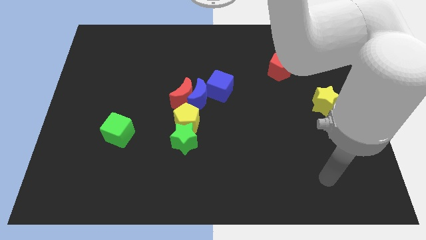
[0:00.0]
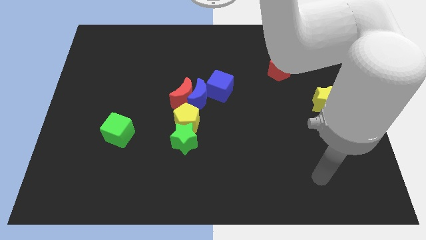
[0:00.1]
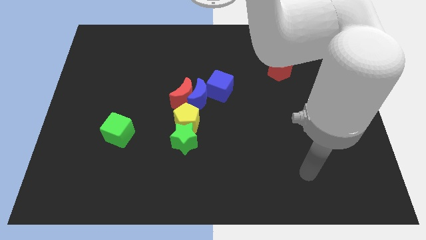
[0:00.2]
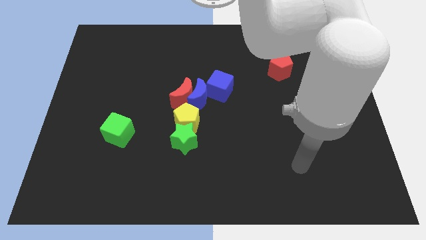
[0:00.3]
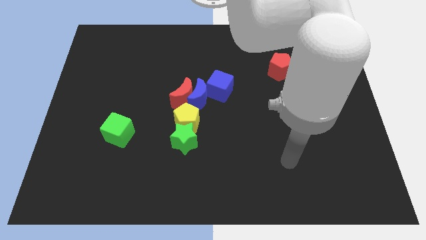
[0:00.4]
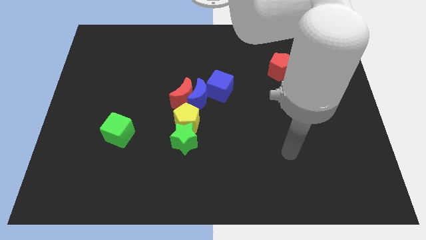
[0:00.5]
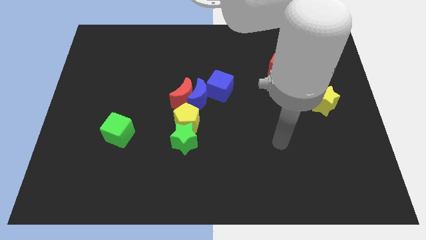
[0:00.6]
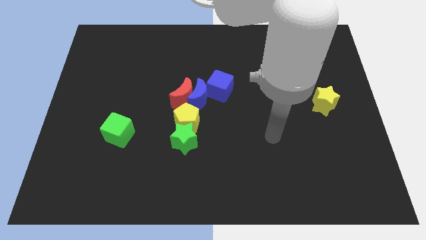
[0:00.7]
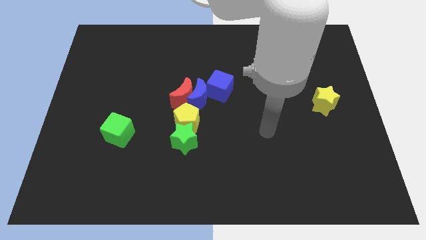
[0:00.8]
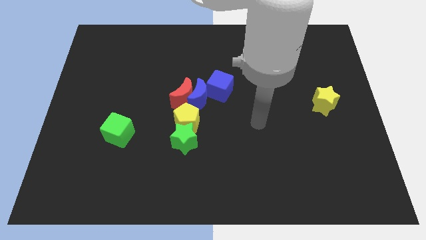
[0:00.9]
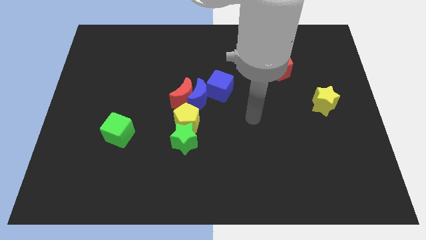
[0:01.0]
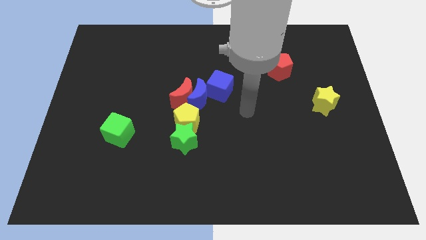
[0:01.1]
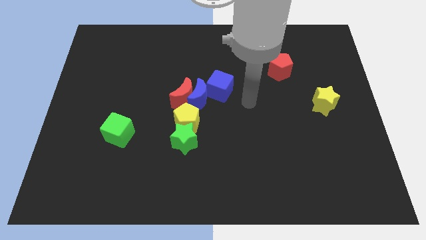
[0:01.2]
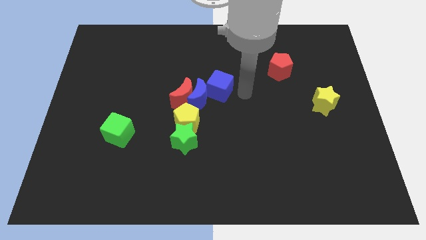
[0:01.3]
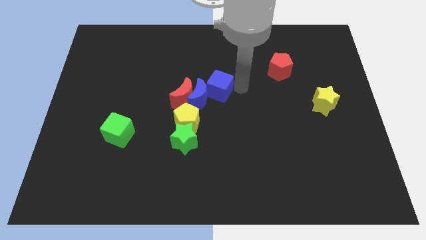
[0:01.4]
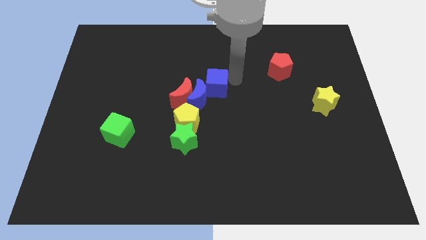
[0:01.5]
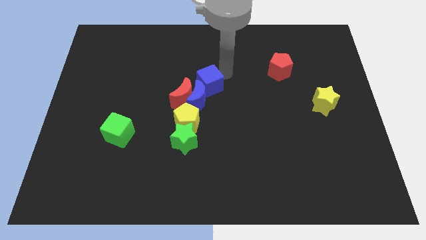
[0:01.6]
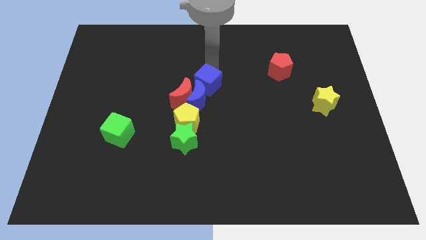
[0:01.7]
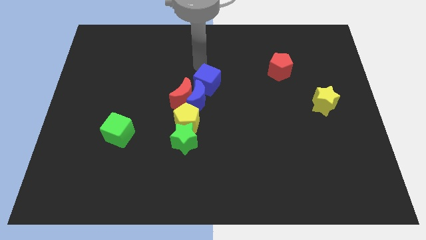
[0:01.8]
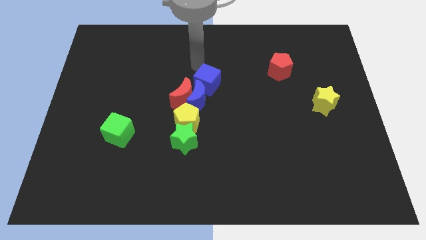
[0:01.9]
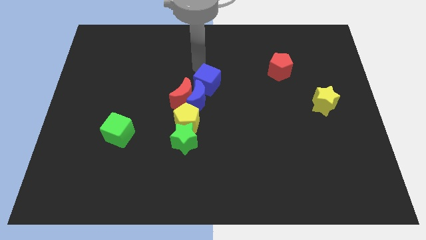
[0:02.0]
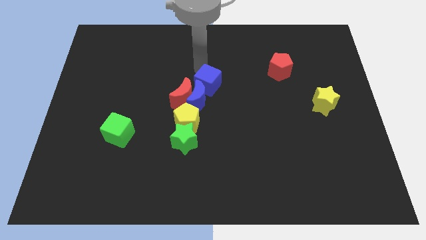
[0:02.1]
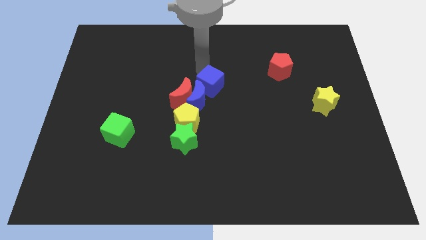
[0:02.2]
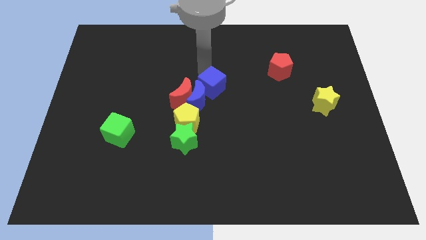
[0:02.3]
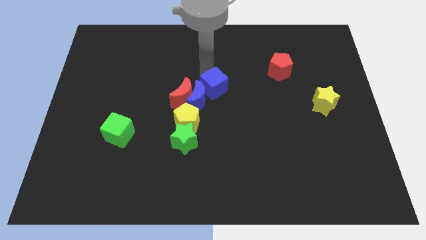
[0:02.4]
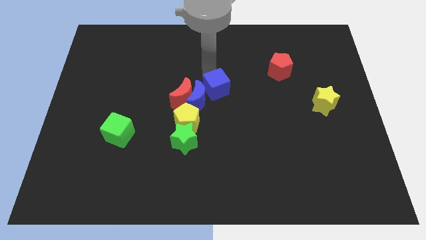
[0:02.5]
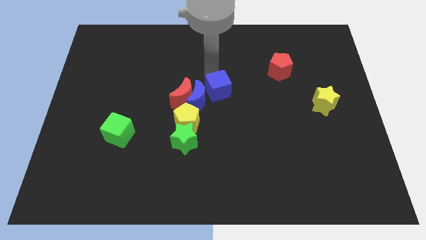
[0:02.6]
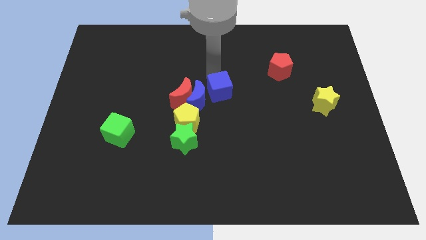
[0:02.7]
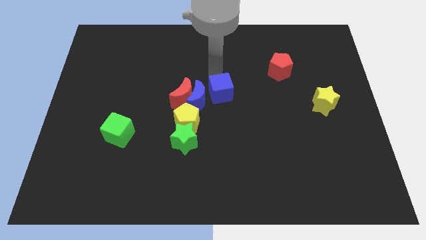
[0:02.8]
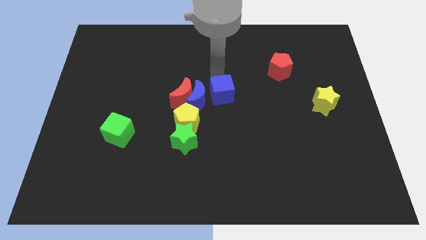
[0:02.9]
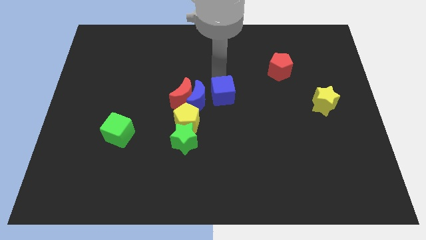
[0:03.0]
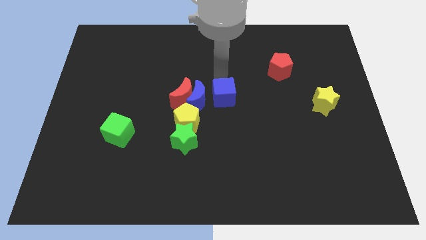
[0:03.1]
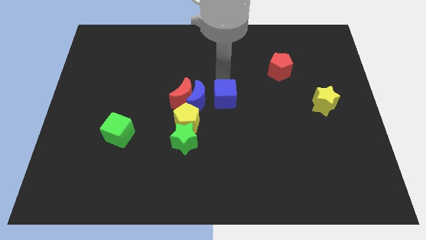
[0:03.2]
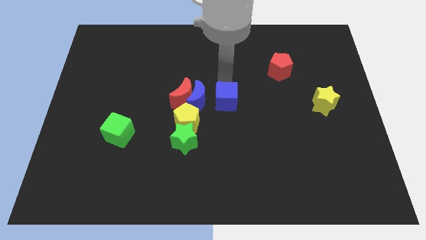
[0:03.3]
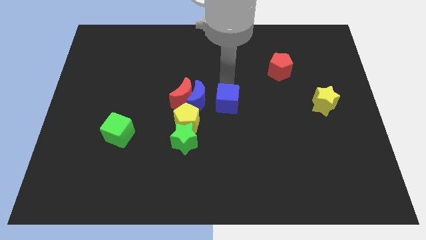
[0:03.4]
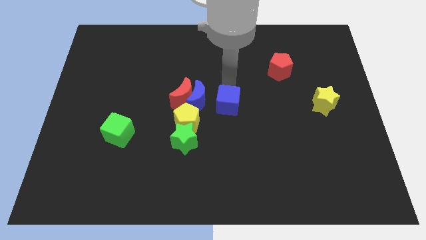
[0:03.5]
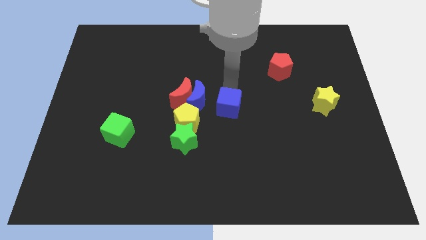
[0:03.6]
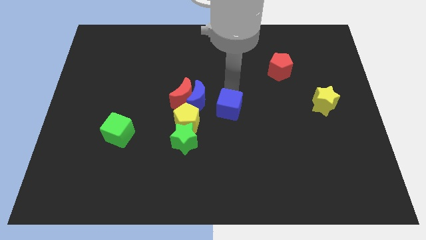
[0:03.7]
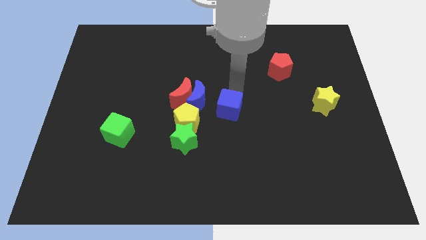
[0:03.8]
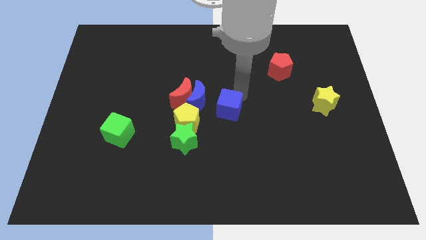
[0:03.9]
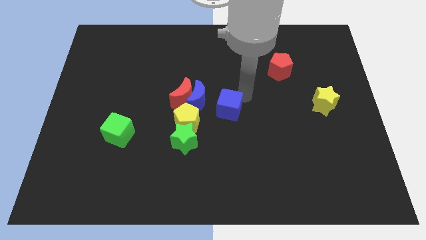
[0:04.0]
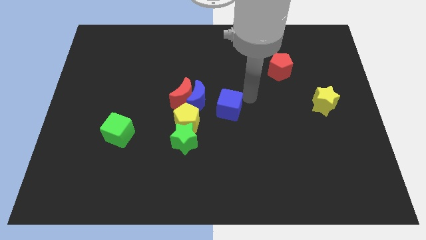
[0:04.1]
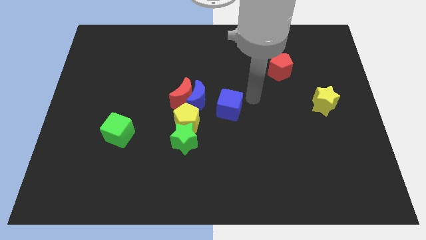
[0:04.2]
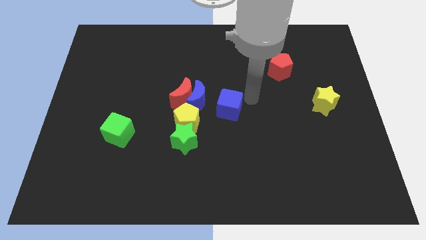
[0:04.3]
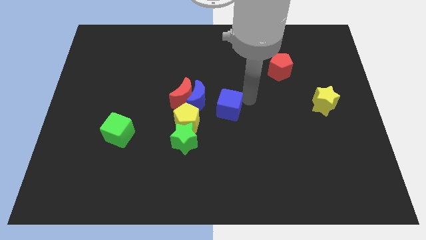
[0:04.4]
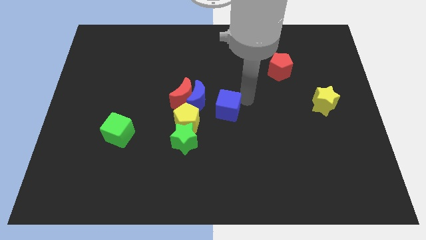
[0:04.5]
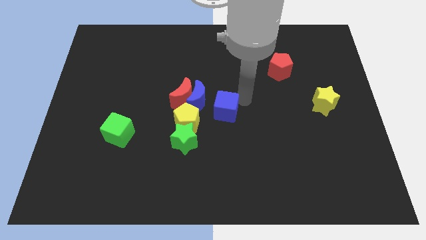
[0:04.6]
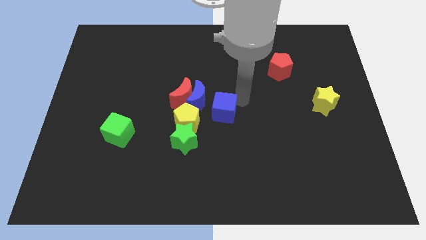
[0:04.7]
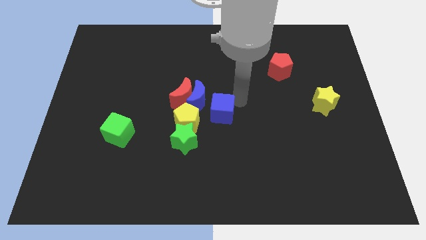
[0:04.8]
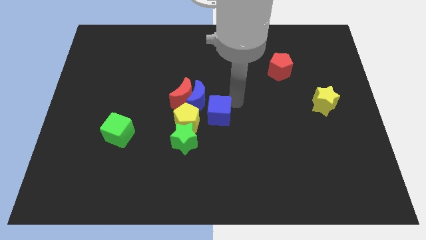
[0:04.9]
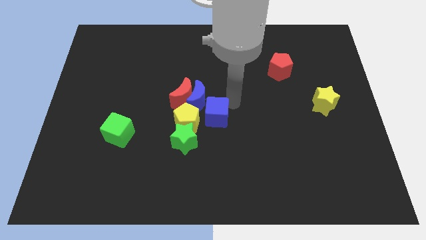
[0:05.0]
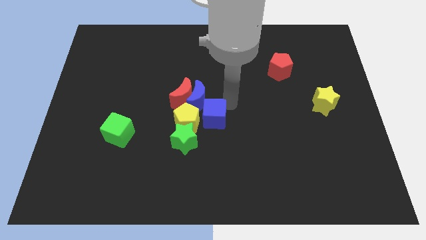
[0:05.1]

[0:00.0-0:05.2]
slide the blue cube next to the yellow pentagon

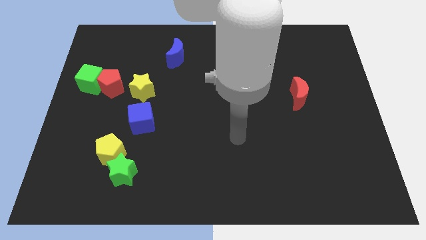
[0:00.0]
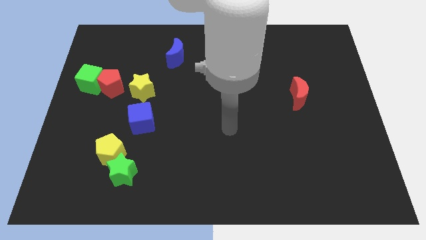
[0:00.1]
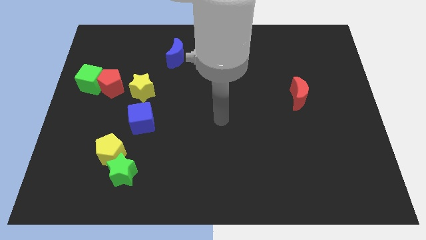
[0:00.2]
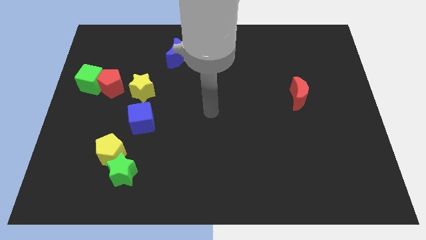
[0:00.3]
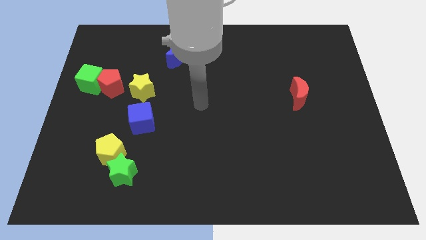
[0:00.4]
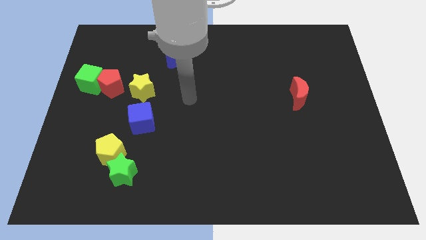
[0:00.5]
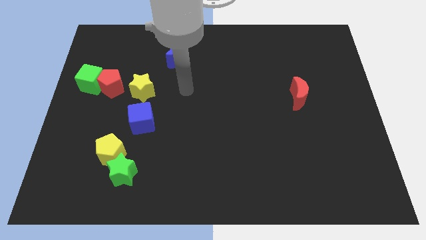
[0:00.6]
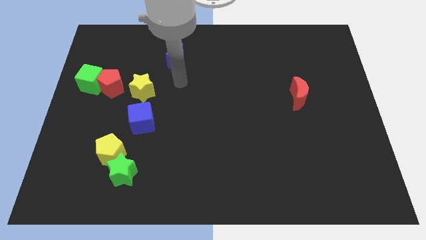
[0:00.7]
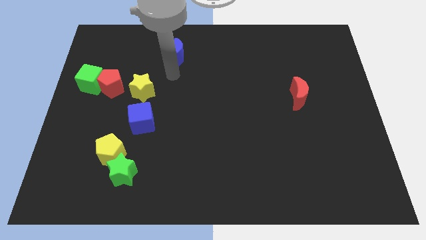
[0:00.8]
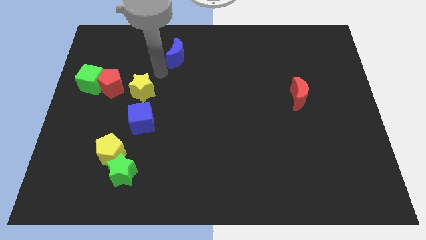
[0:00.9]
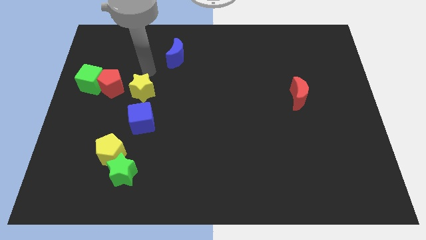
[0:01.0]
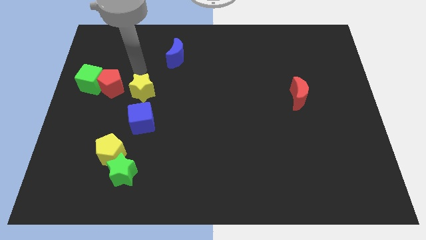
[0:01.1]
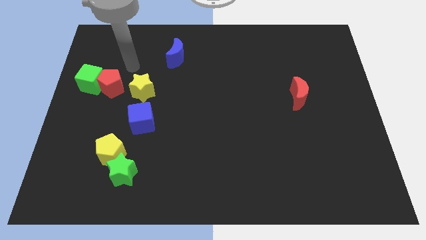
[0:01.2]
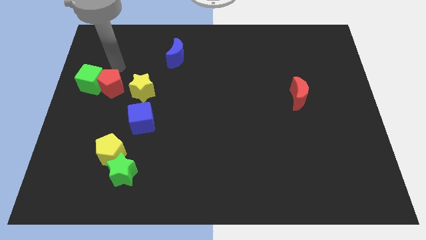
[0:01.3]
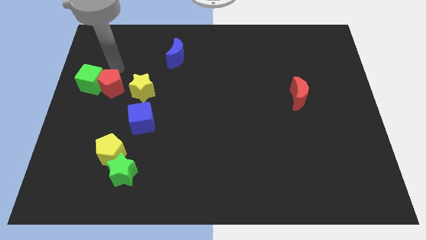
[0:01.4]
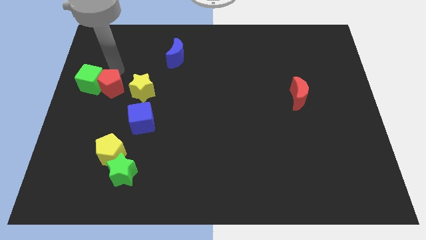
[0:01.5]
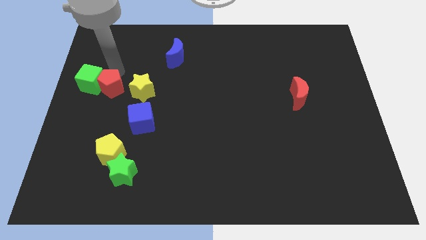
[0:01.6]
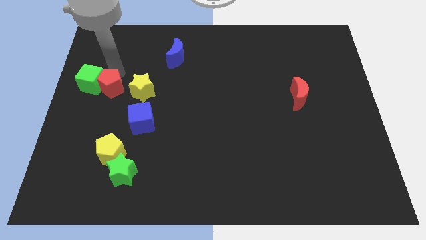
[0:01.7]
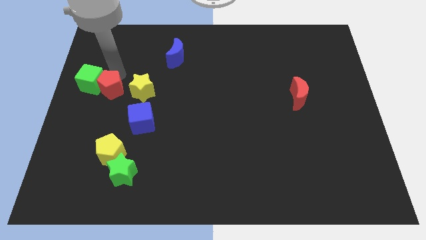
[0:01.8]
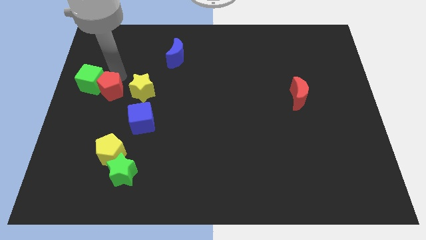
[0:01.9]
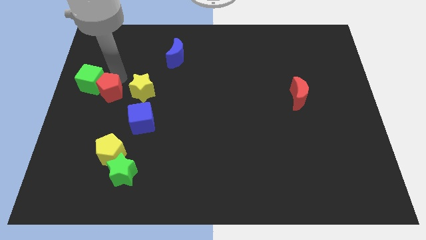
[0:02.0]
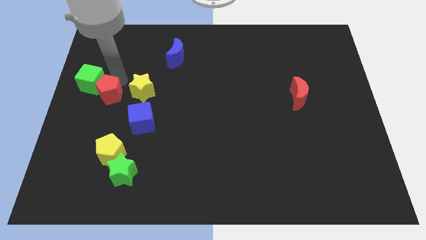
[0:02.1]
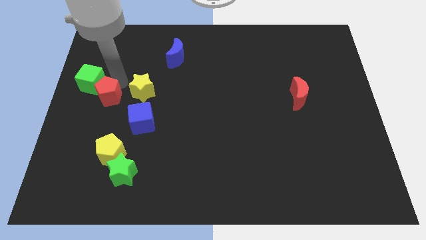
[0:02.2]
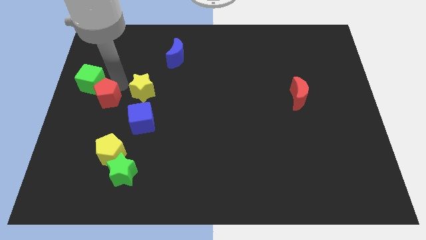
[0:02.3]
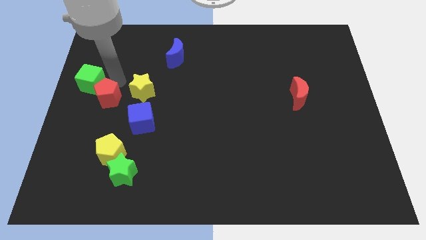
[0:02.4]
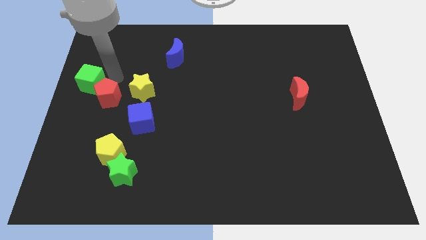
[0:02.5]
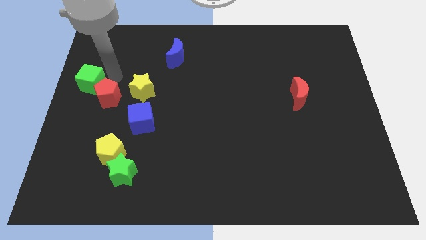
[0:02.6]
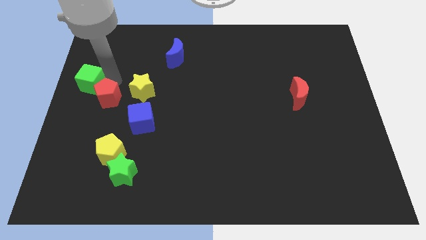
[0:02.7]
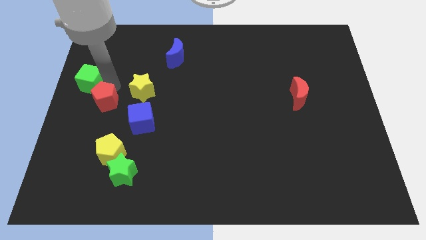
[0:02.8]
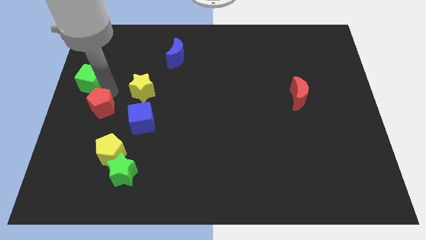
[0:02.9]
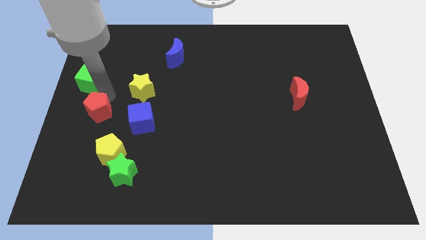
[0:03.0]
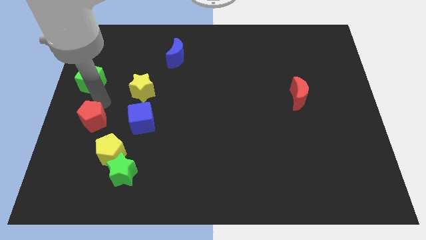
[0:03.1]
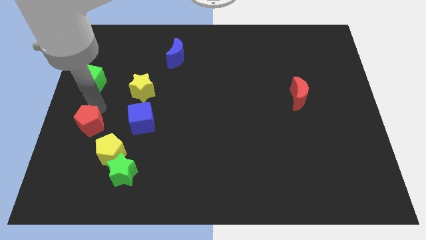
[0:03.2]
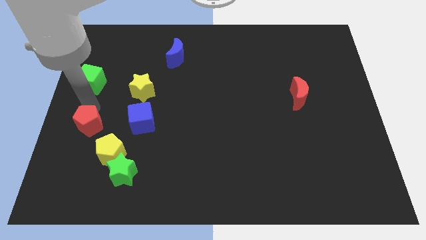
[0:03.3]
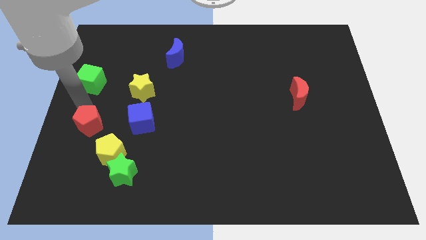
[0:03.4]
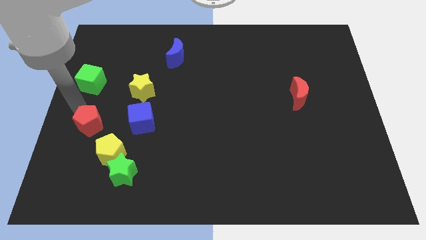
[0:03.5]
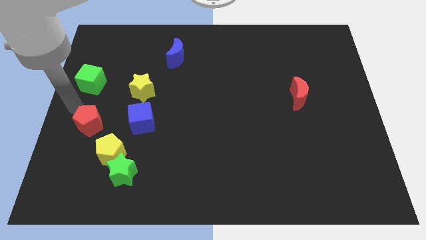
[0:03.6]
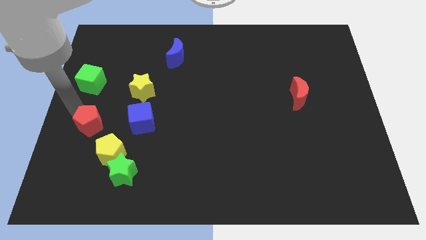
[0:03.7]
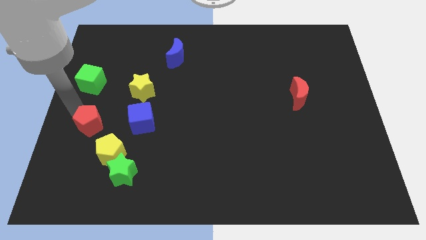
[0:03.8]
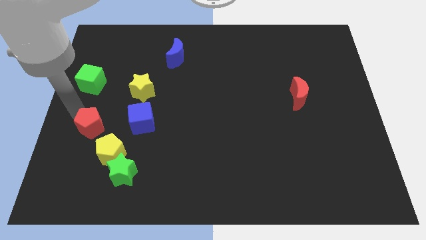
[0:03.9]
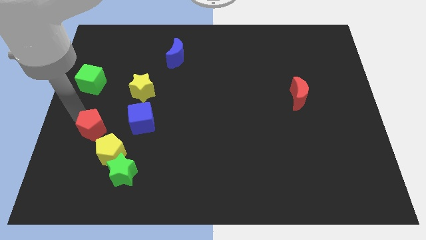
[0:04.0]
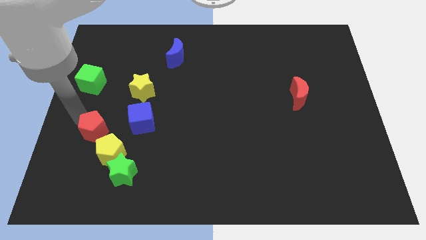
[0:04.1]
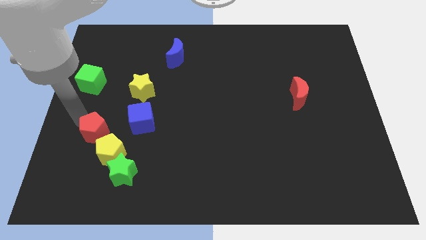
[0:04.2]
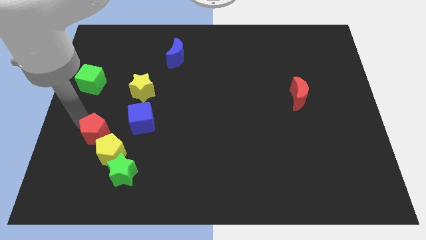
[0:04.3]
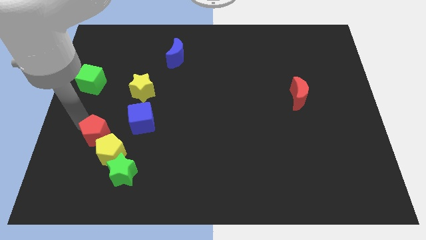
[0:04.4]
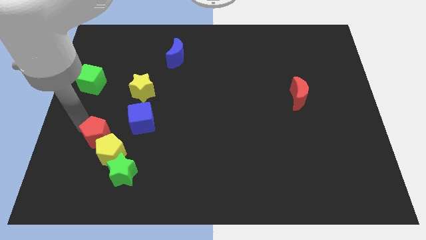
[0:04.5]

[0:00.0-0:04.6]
push the red pentagon towards the yellow pentagon
